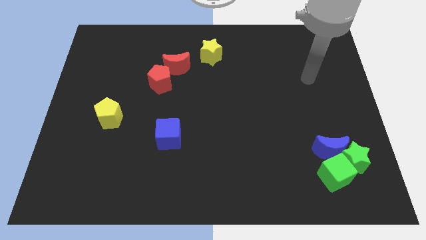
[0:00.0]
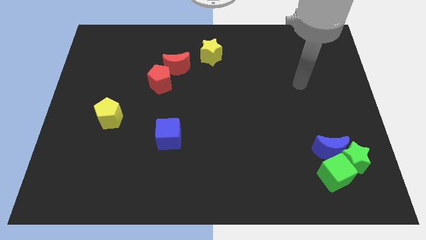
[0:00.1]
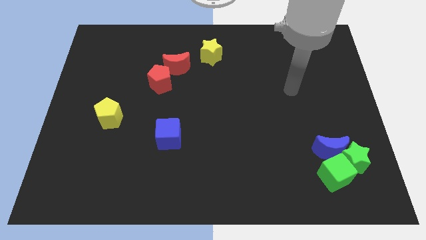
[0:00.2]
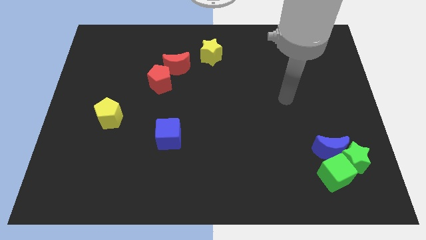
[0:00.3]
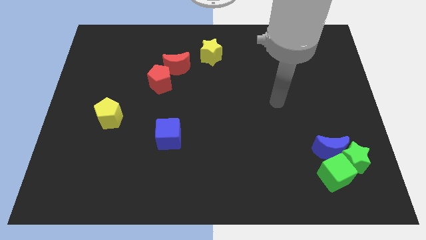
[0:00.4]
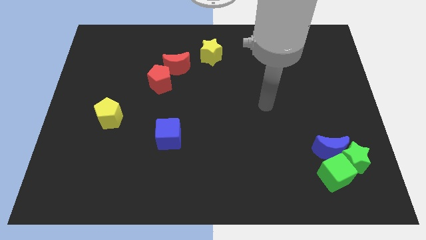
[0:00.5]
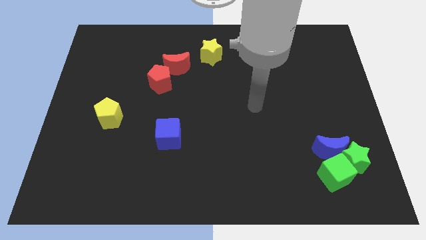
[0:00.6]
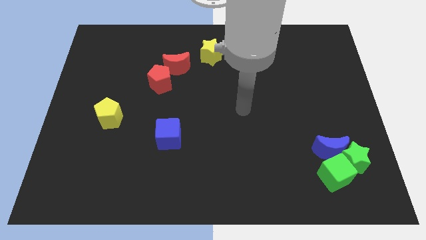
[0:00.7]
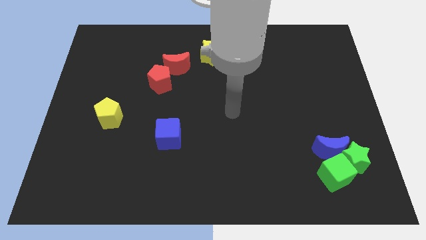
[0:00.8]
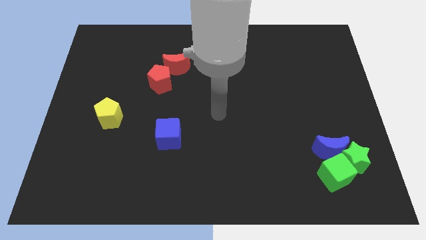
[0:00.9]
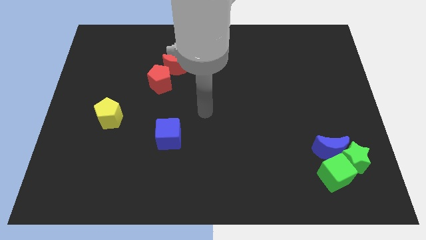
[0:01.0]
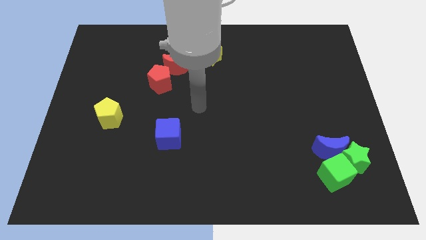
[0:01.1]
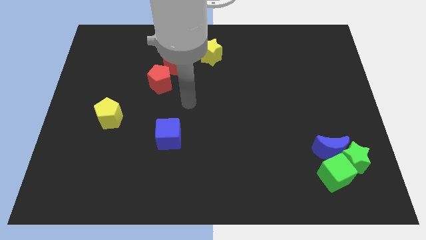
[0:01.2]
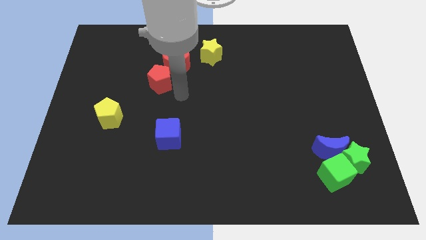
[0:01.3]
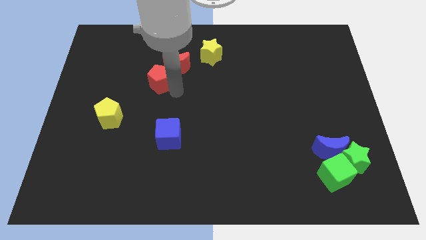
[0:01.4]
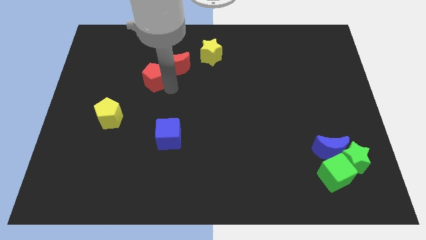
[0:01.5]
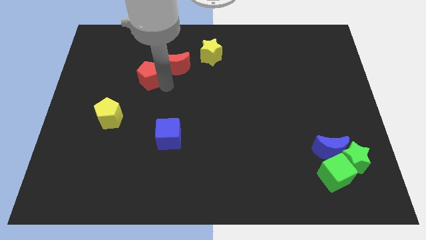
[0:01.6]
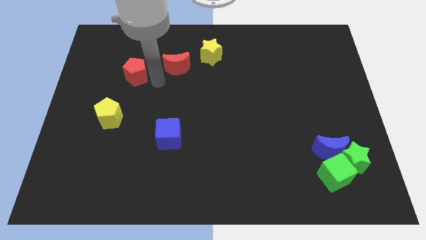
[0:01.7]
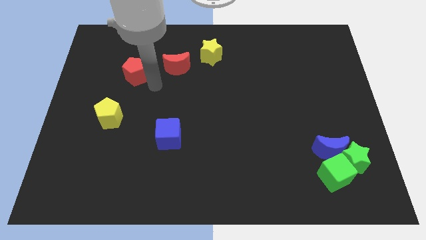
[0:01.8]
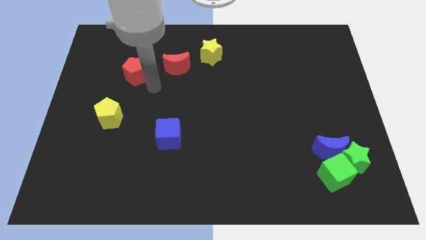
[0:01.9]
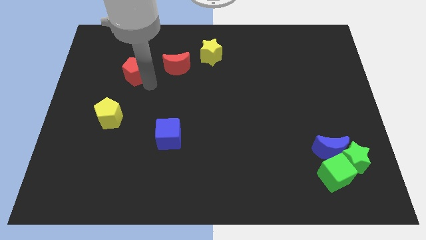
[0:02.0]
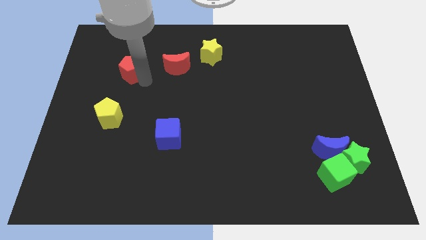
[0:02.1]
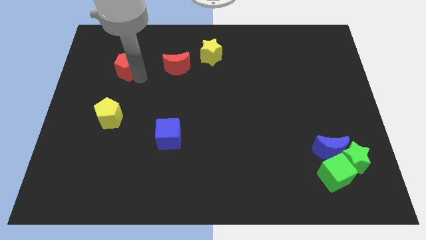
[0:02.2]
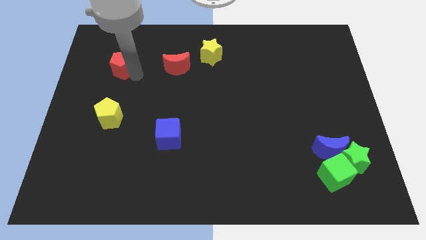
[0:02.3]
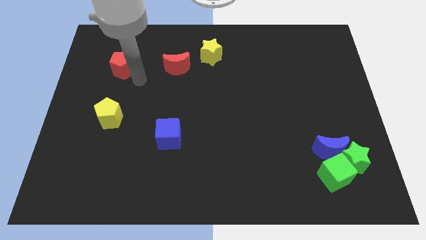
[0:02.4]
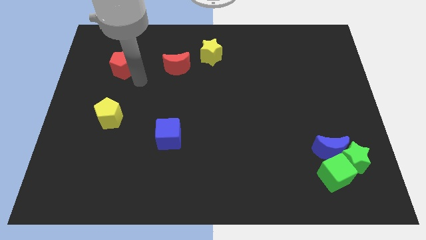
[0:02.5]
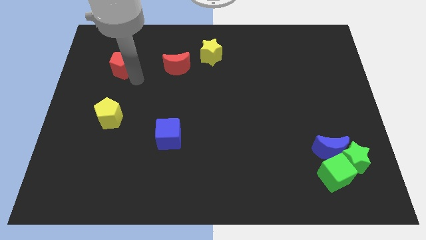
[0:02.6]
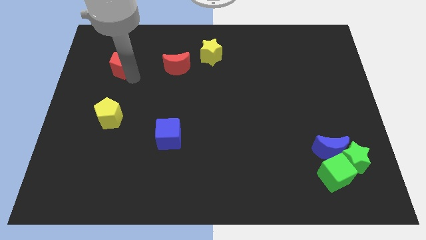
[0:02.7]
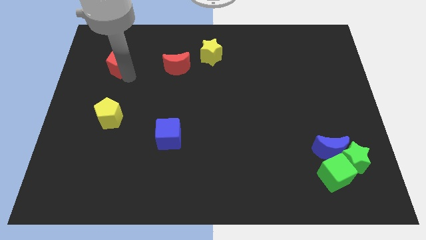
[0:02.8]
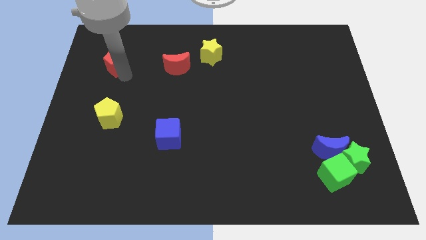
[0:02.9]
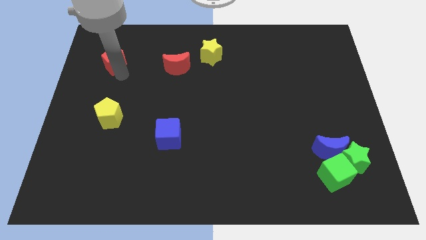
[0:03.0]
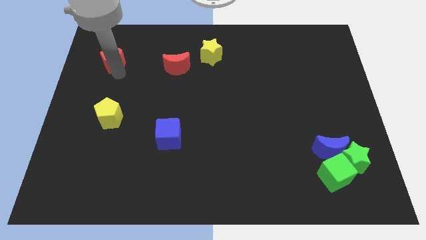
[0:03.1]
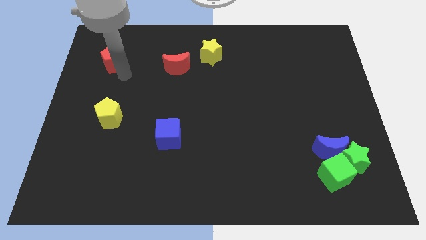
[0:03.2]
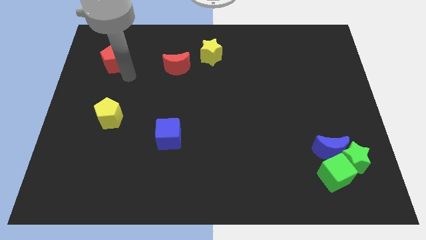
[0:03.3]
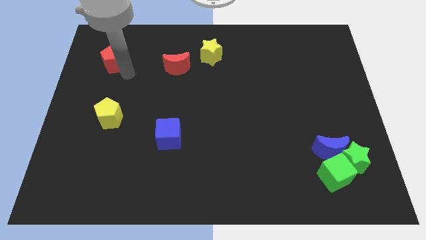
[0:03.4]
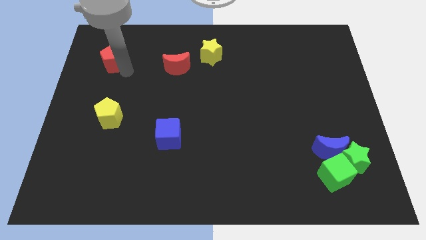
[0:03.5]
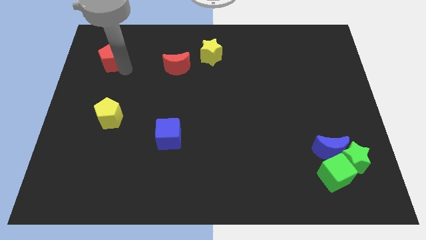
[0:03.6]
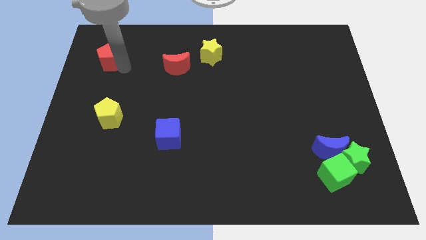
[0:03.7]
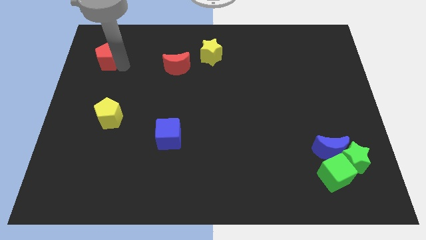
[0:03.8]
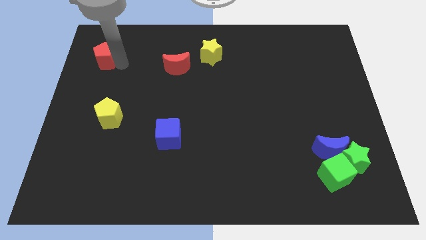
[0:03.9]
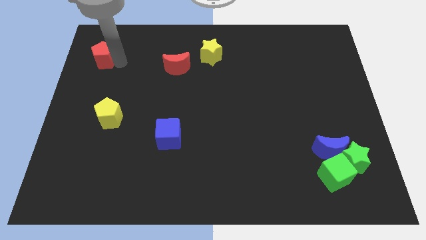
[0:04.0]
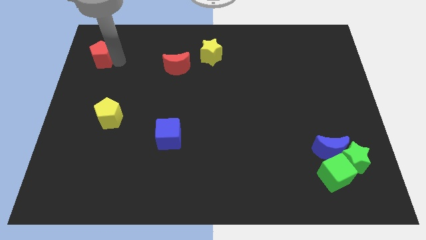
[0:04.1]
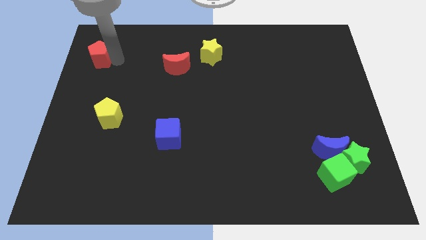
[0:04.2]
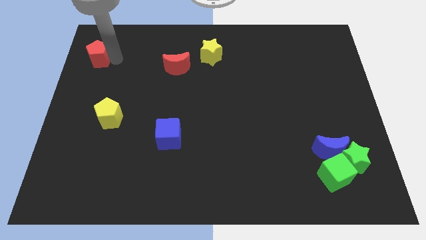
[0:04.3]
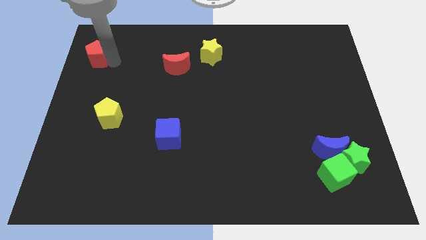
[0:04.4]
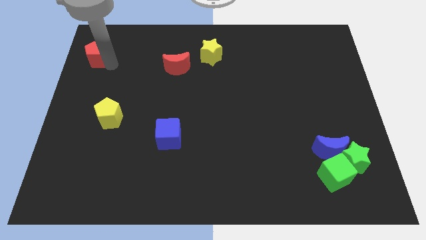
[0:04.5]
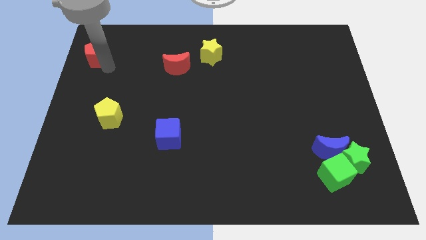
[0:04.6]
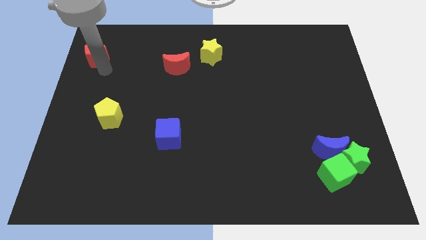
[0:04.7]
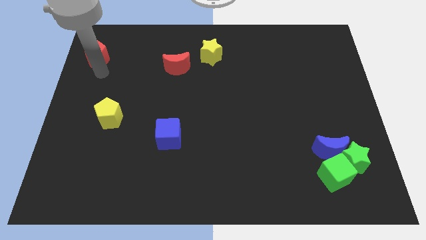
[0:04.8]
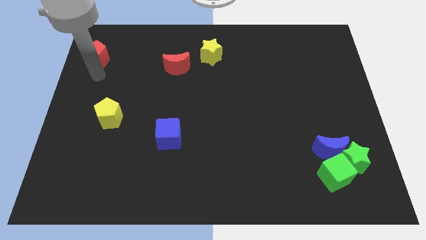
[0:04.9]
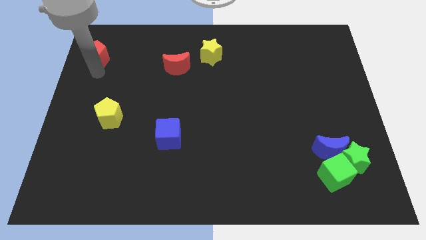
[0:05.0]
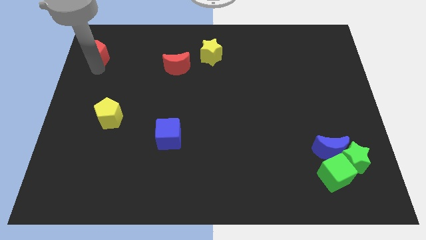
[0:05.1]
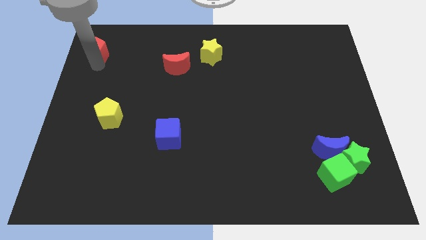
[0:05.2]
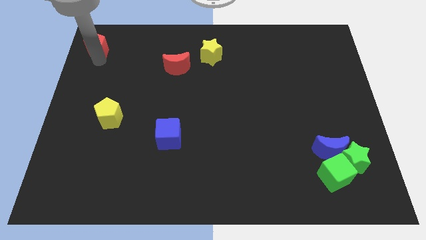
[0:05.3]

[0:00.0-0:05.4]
put the red pentagon to the top left of the board

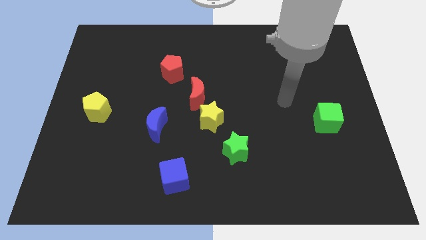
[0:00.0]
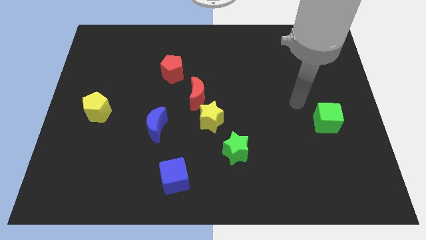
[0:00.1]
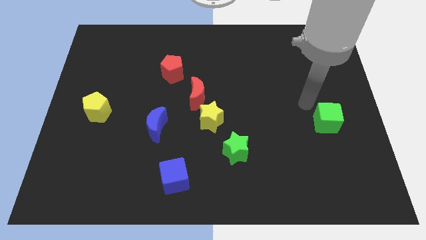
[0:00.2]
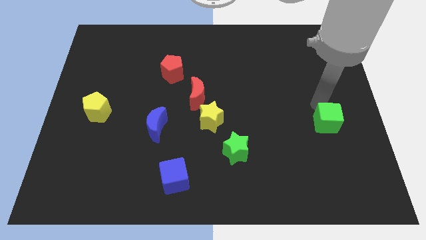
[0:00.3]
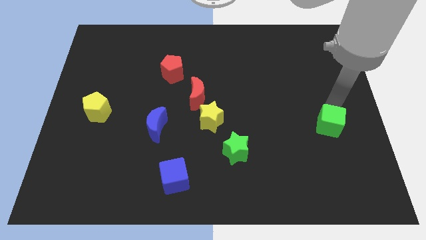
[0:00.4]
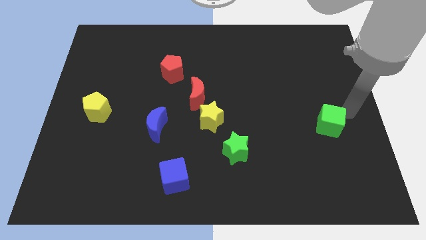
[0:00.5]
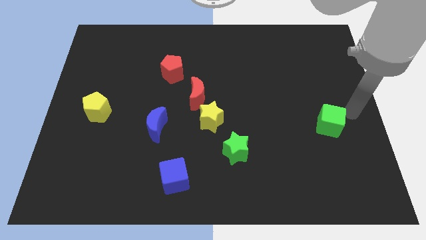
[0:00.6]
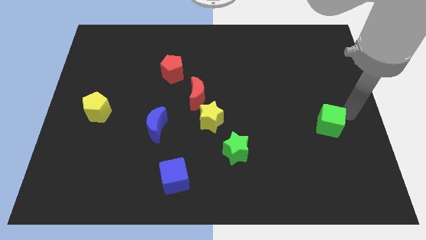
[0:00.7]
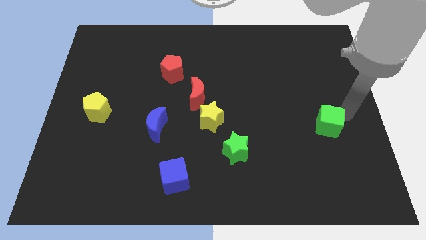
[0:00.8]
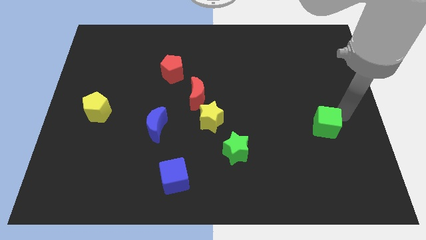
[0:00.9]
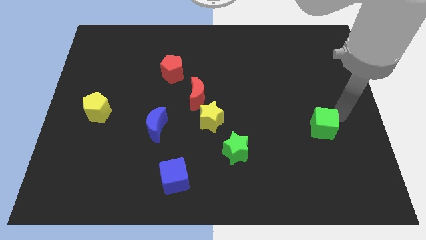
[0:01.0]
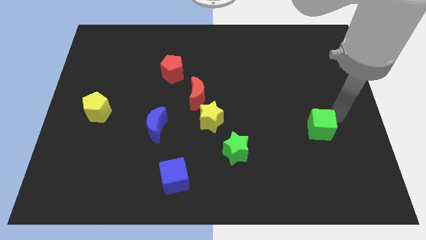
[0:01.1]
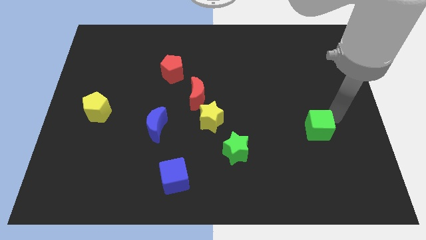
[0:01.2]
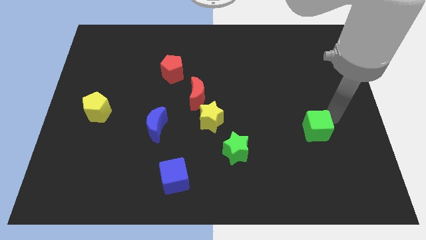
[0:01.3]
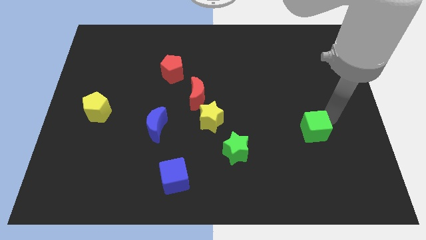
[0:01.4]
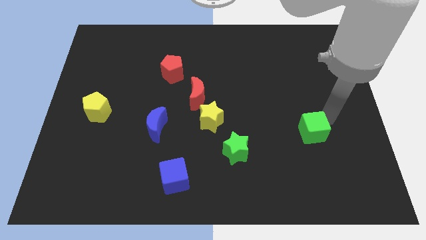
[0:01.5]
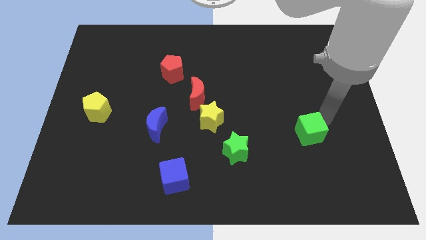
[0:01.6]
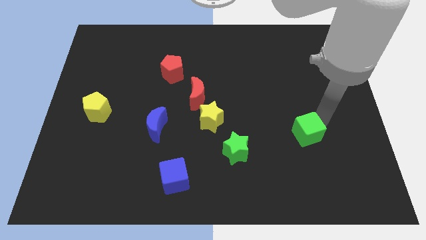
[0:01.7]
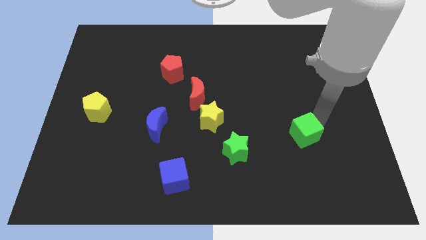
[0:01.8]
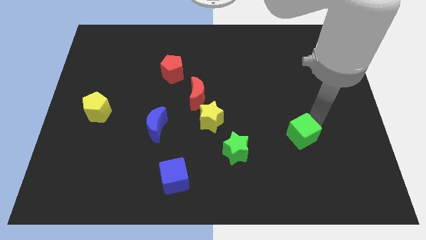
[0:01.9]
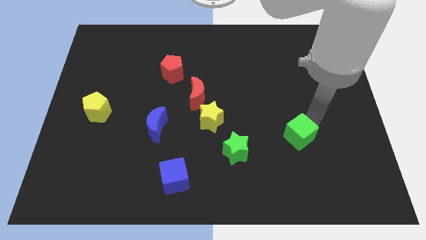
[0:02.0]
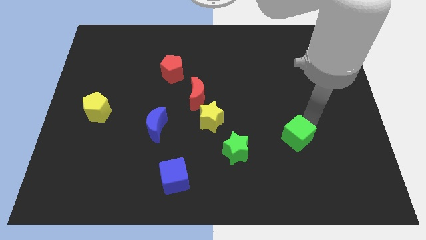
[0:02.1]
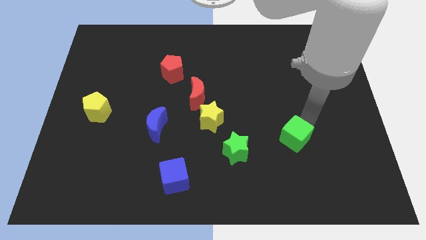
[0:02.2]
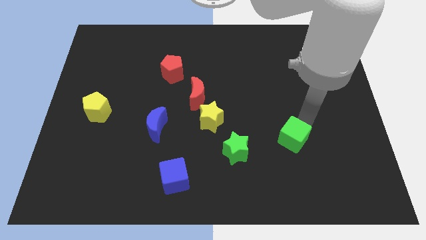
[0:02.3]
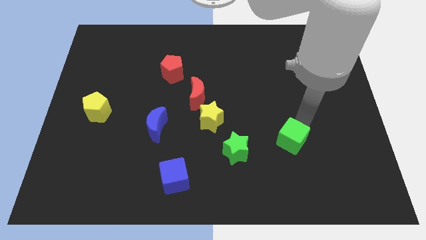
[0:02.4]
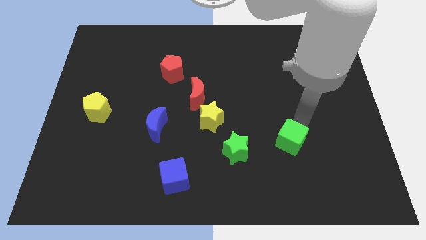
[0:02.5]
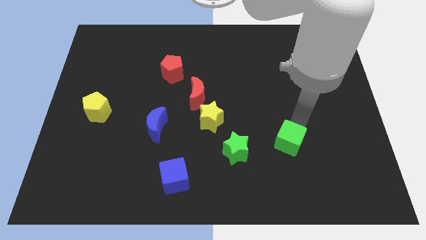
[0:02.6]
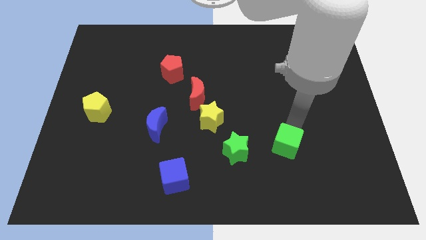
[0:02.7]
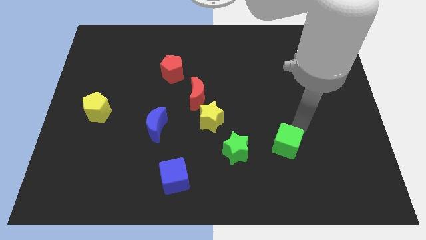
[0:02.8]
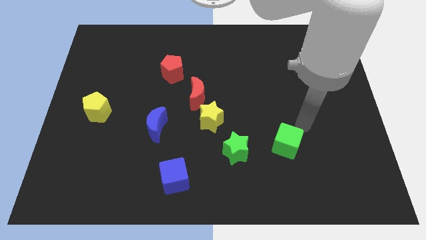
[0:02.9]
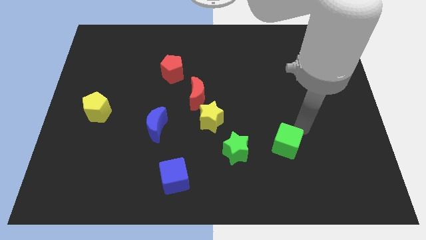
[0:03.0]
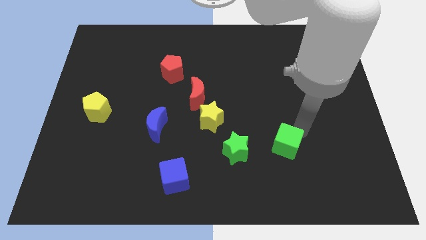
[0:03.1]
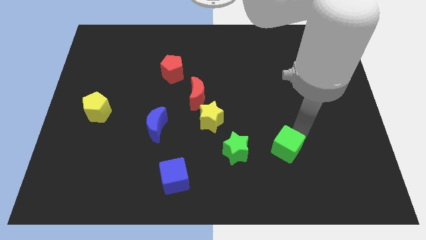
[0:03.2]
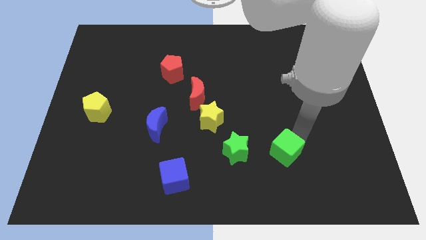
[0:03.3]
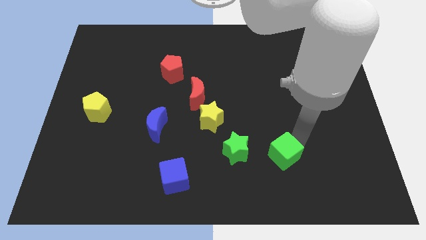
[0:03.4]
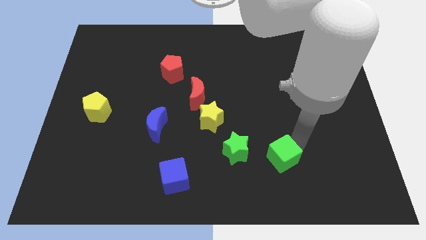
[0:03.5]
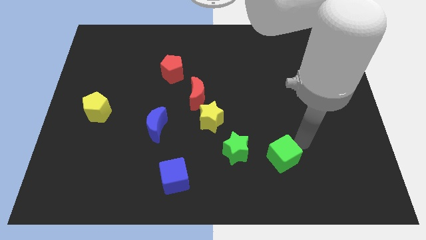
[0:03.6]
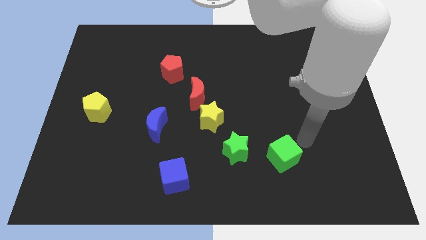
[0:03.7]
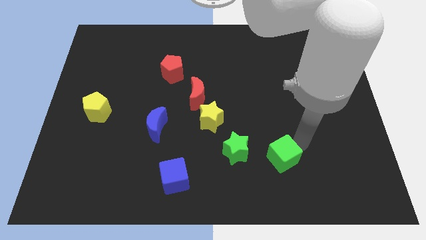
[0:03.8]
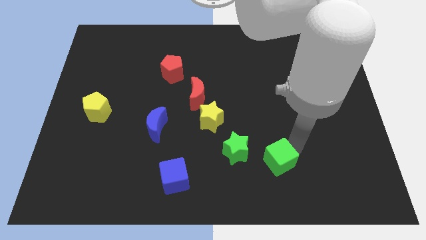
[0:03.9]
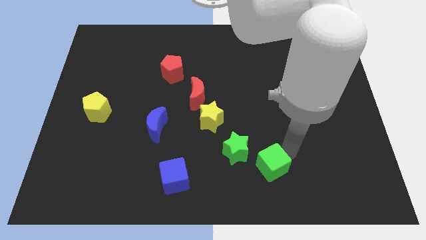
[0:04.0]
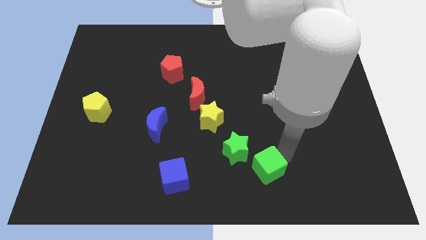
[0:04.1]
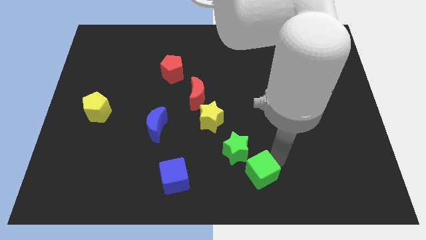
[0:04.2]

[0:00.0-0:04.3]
push the green cube to the bottom side
